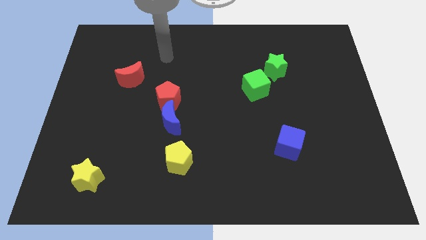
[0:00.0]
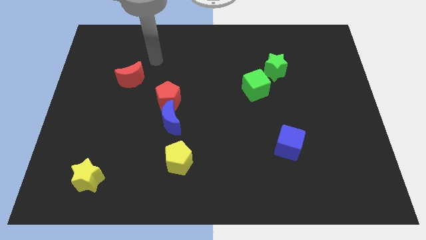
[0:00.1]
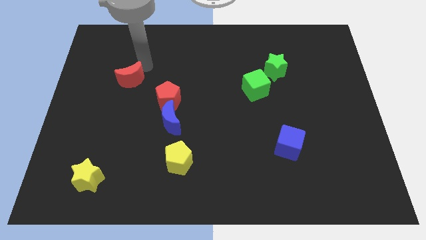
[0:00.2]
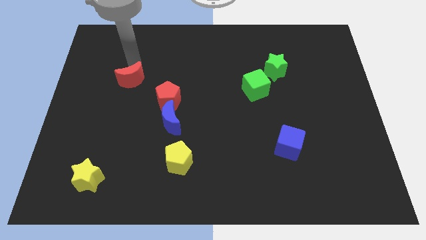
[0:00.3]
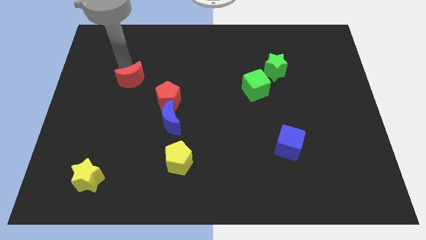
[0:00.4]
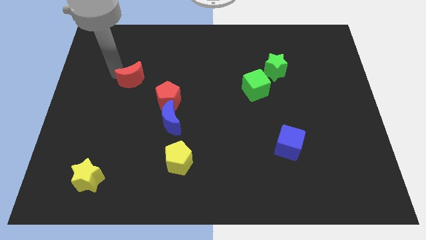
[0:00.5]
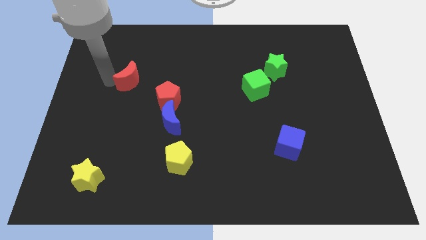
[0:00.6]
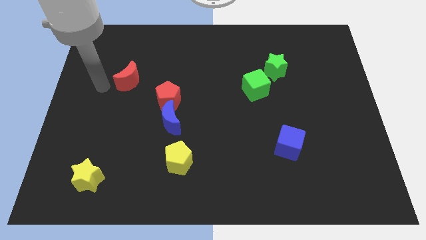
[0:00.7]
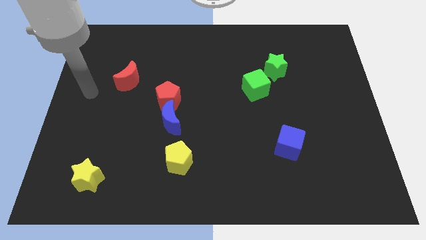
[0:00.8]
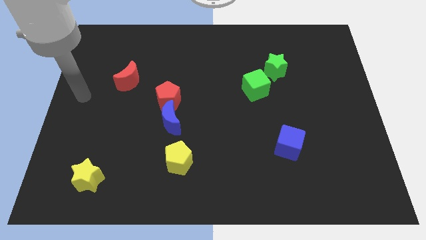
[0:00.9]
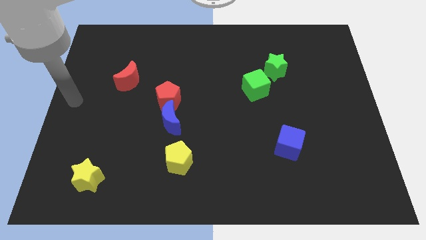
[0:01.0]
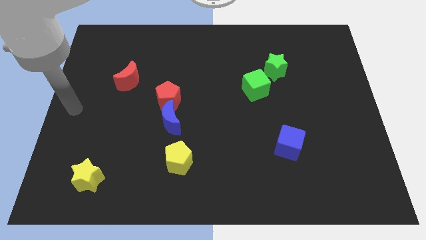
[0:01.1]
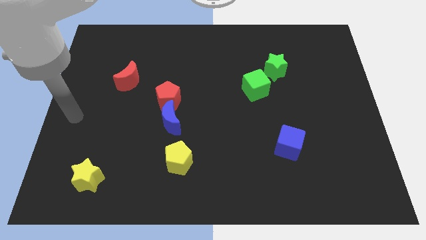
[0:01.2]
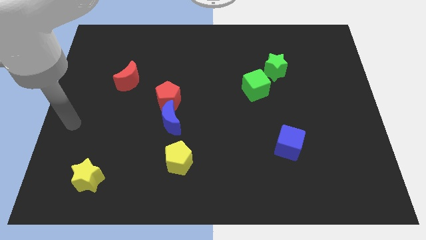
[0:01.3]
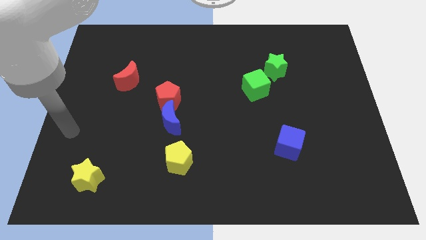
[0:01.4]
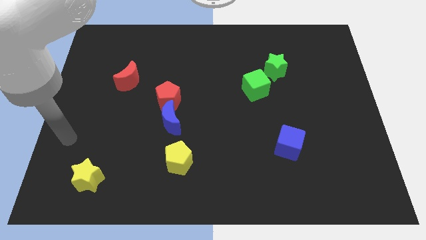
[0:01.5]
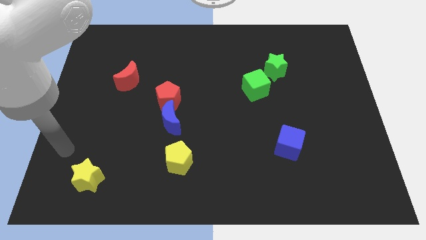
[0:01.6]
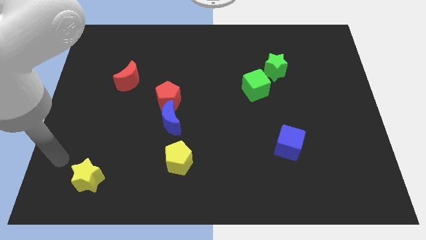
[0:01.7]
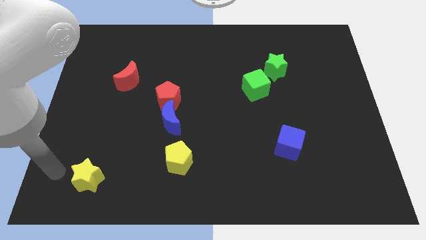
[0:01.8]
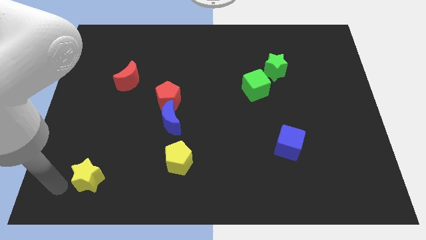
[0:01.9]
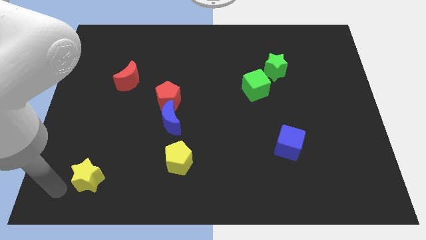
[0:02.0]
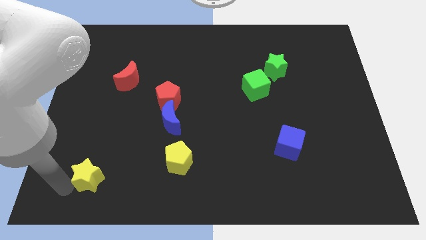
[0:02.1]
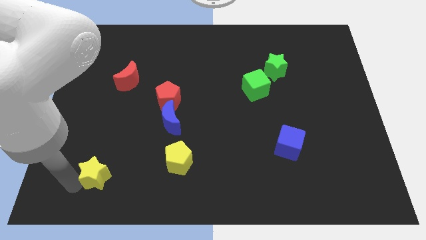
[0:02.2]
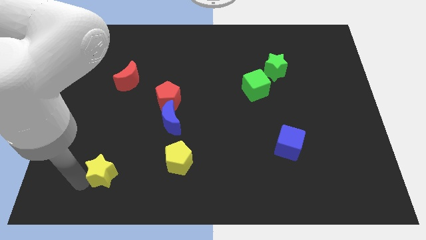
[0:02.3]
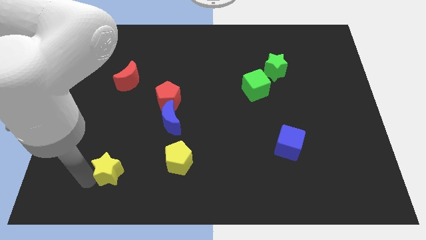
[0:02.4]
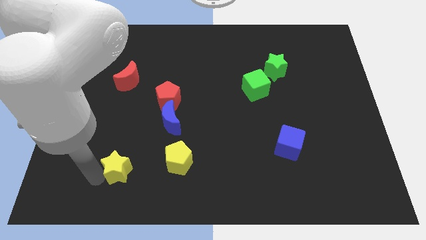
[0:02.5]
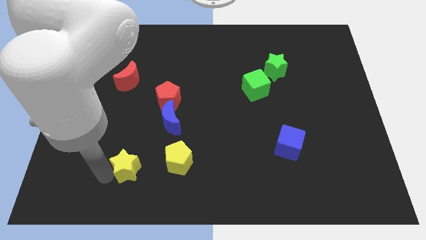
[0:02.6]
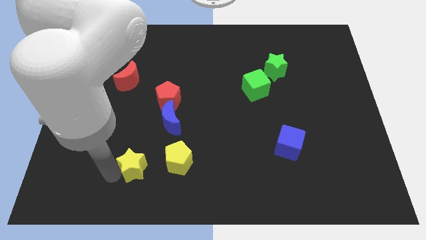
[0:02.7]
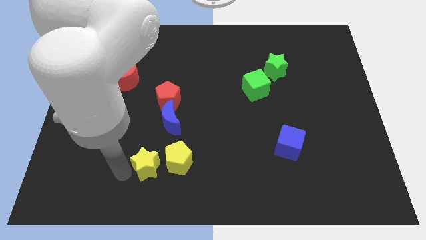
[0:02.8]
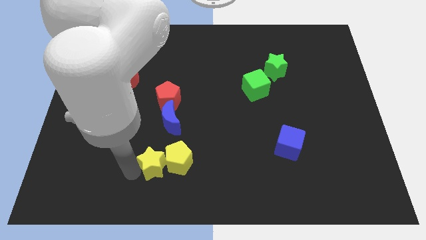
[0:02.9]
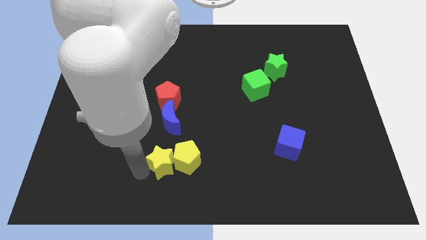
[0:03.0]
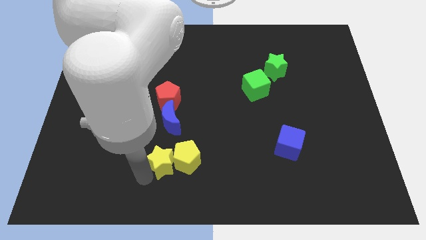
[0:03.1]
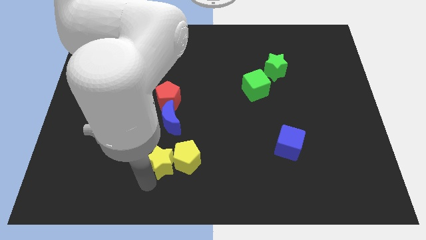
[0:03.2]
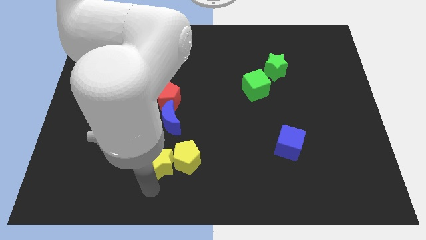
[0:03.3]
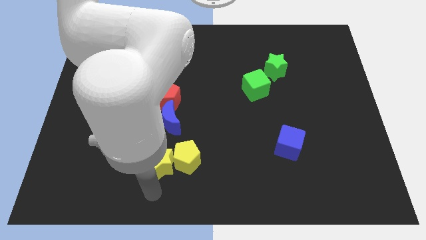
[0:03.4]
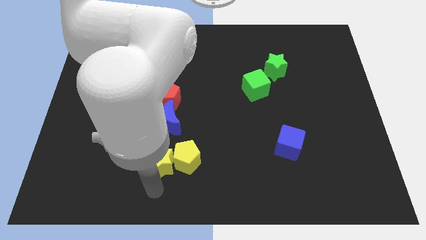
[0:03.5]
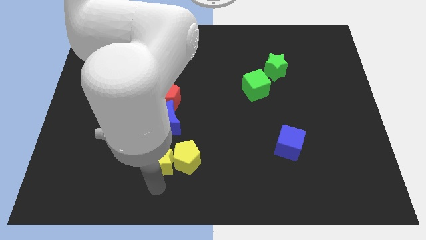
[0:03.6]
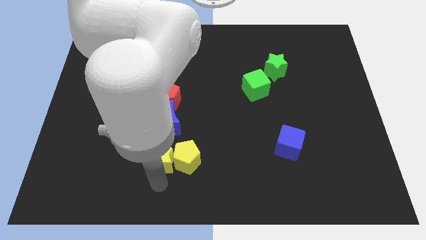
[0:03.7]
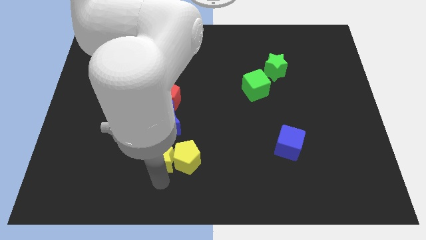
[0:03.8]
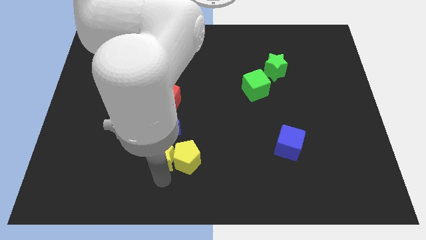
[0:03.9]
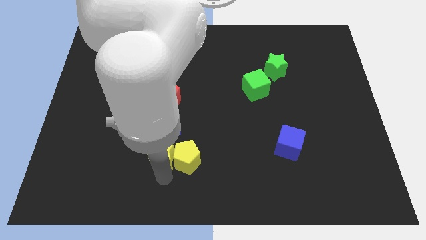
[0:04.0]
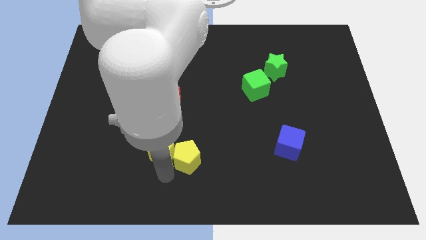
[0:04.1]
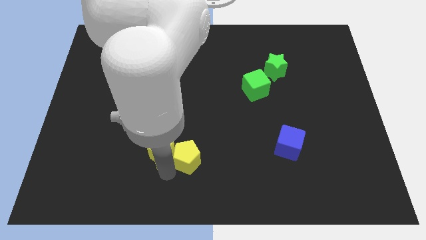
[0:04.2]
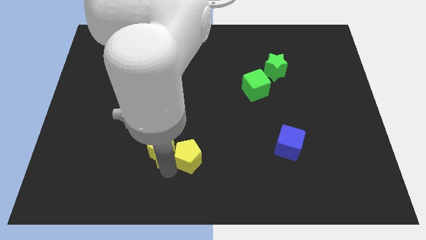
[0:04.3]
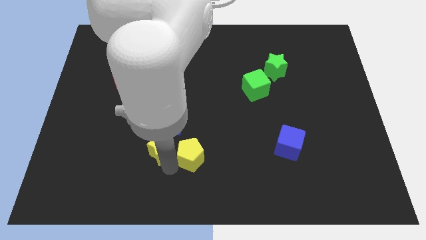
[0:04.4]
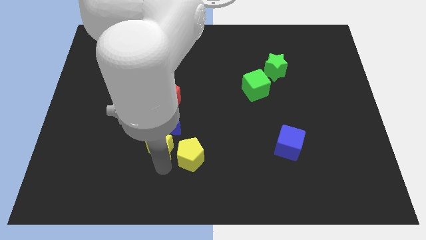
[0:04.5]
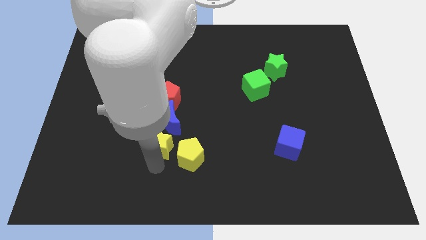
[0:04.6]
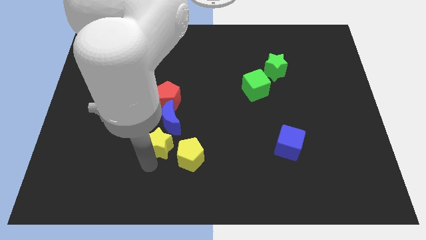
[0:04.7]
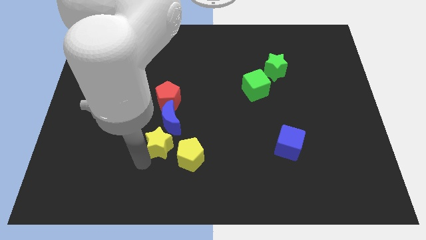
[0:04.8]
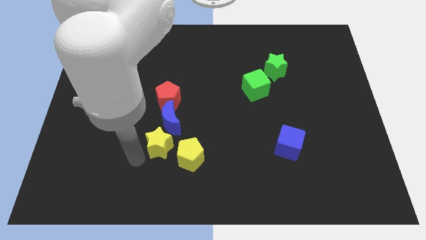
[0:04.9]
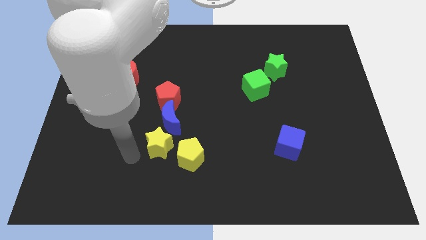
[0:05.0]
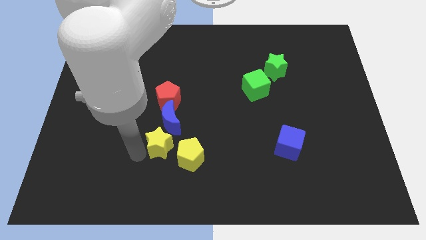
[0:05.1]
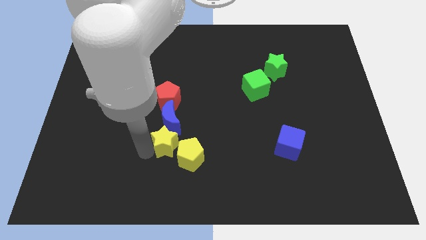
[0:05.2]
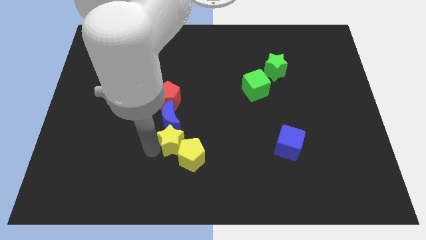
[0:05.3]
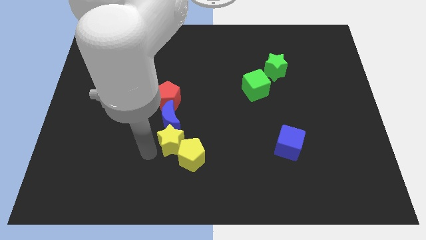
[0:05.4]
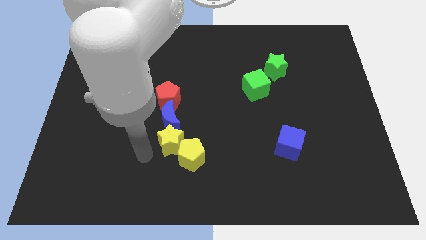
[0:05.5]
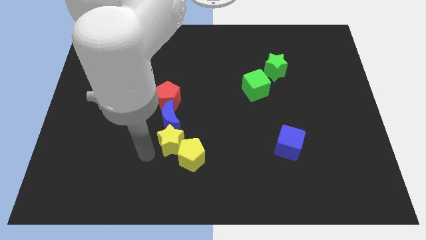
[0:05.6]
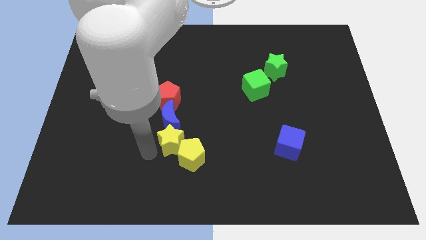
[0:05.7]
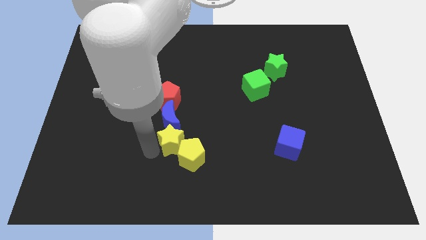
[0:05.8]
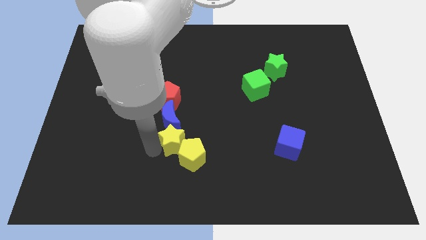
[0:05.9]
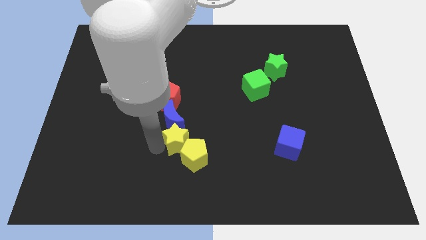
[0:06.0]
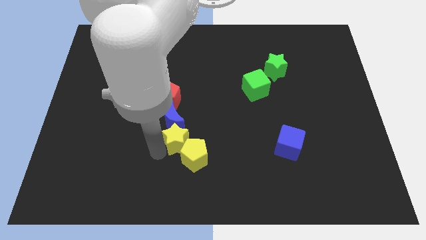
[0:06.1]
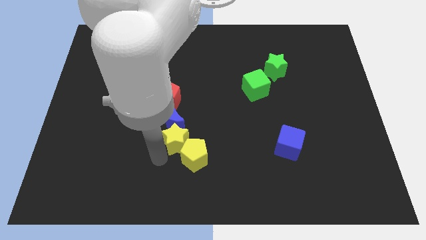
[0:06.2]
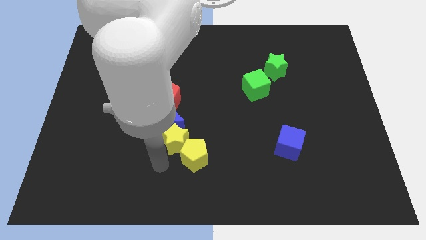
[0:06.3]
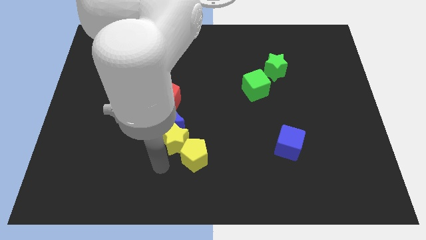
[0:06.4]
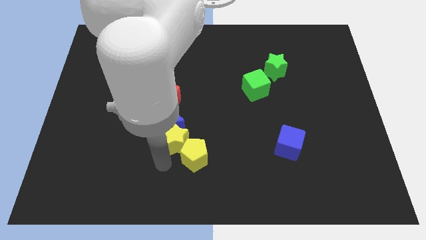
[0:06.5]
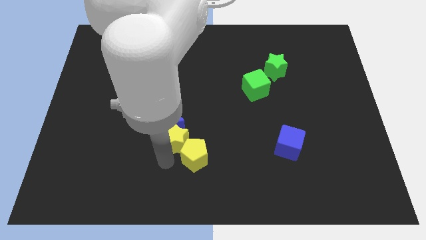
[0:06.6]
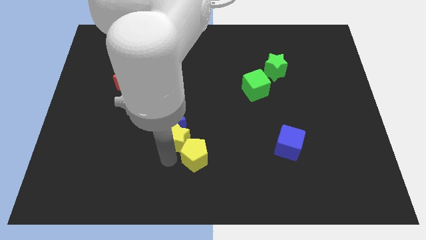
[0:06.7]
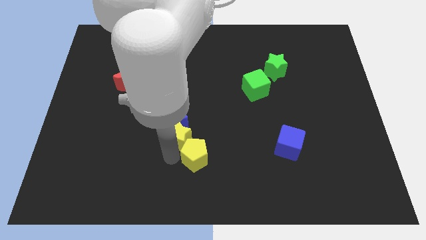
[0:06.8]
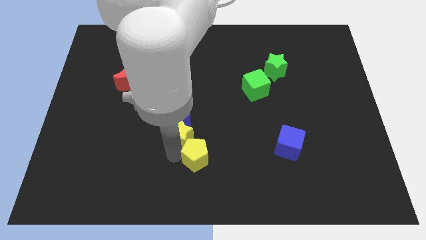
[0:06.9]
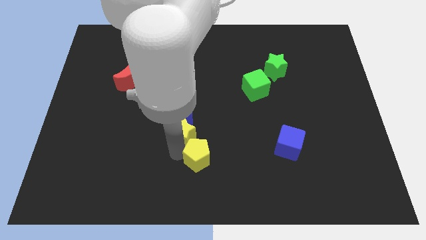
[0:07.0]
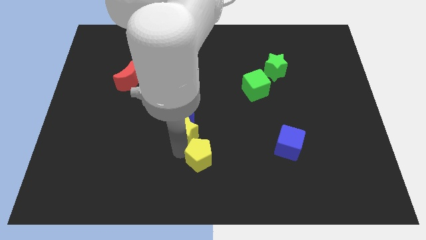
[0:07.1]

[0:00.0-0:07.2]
slide the yellow star diagonally upwards and to the right

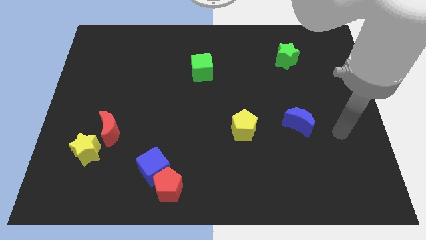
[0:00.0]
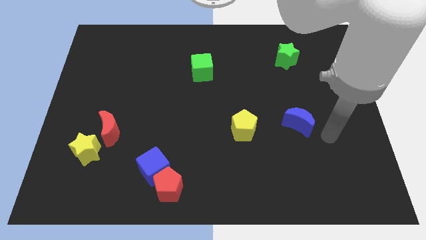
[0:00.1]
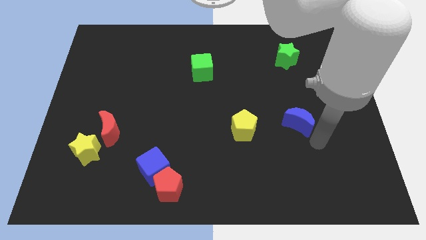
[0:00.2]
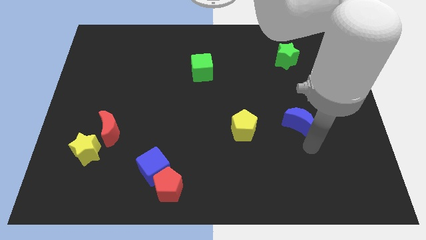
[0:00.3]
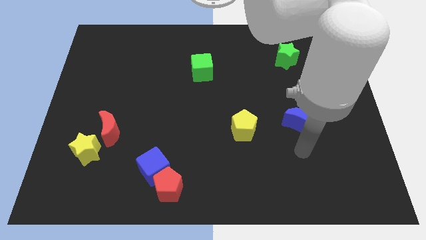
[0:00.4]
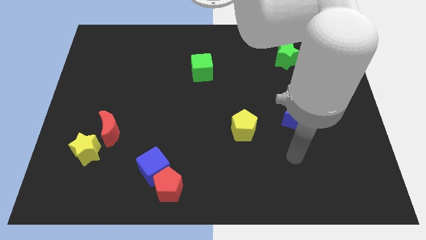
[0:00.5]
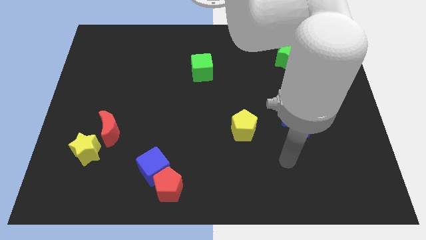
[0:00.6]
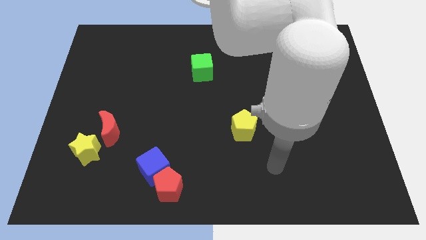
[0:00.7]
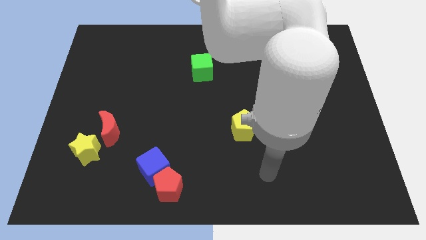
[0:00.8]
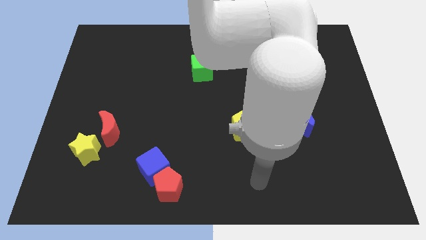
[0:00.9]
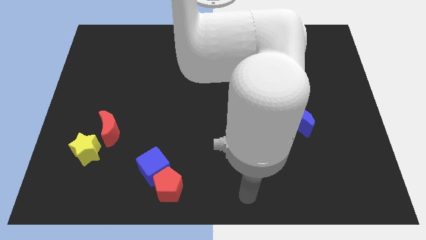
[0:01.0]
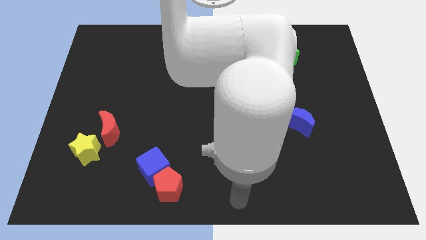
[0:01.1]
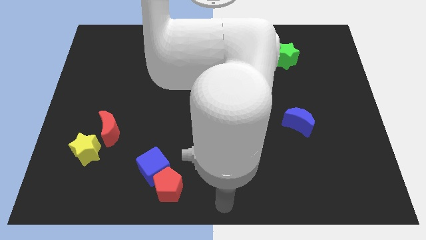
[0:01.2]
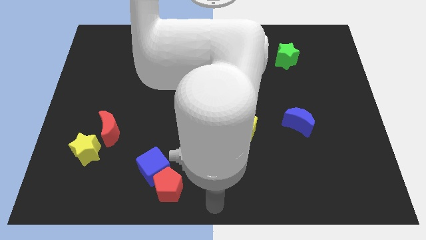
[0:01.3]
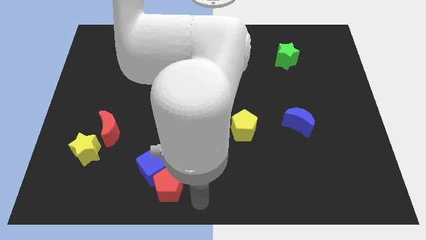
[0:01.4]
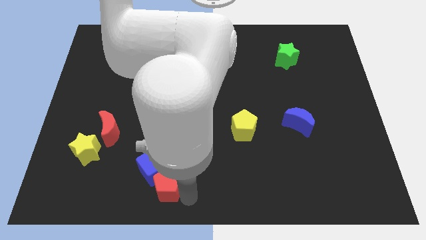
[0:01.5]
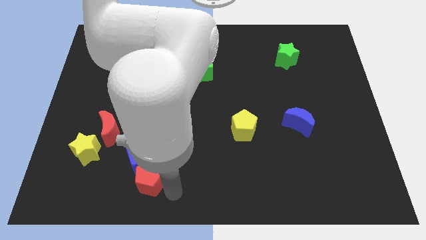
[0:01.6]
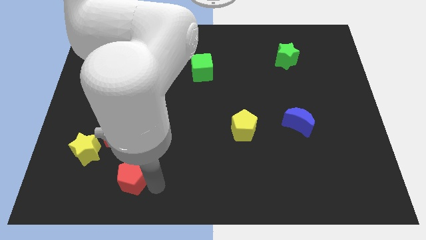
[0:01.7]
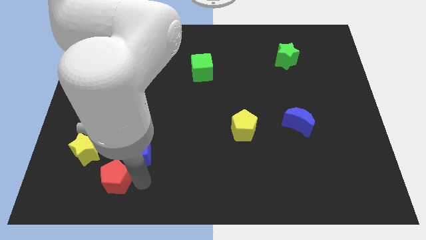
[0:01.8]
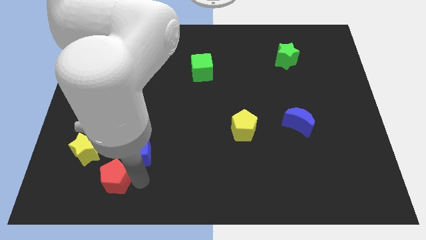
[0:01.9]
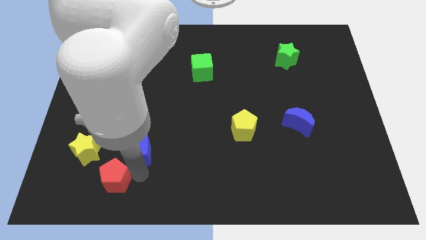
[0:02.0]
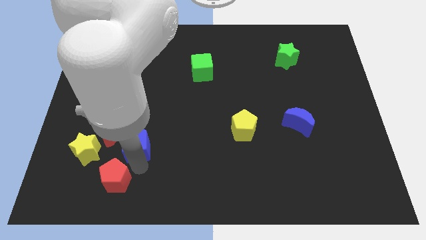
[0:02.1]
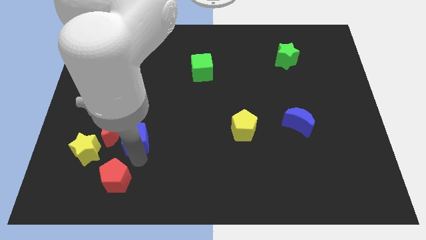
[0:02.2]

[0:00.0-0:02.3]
push the blue cube somewhat upwards and then to the left
